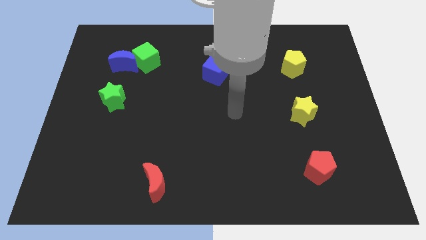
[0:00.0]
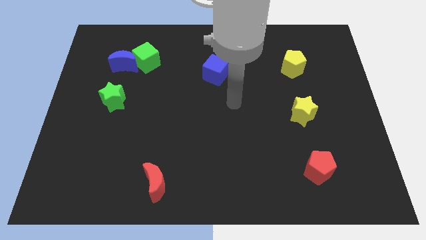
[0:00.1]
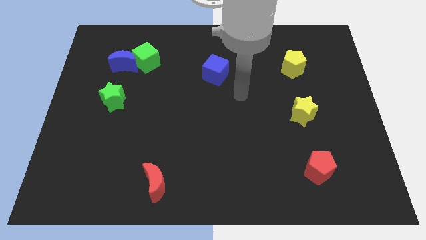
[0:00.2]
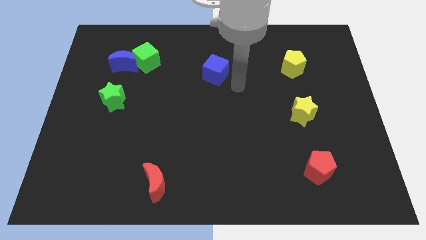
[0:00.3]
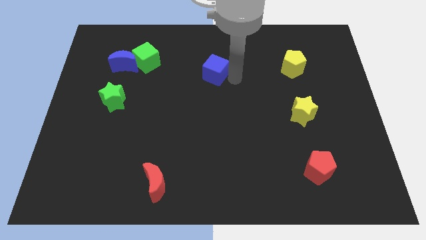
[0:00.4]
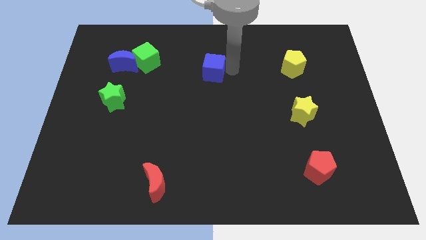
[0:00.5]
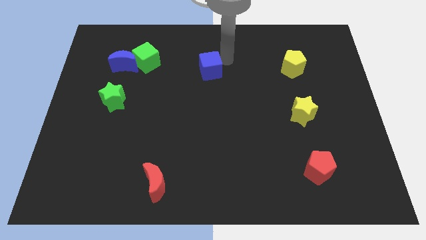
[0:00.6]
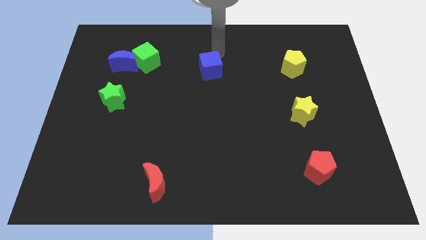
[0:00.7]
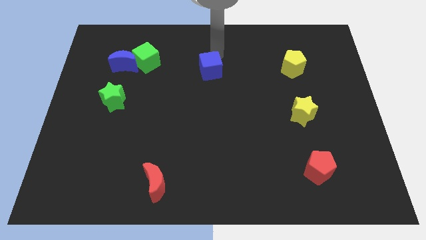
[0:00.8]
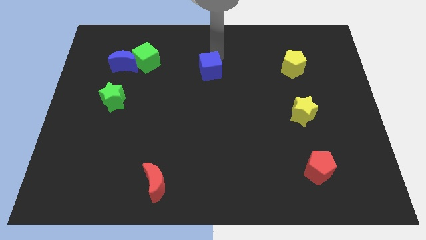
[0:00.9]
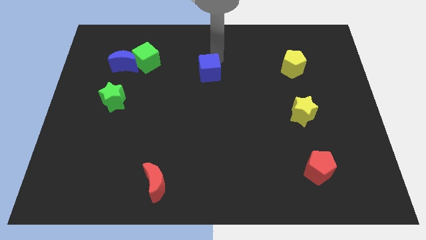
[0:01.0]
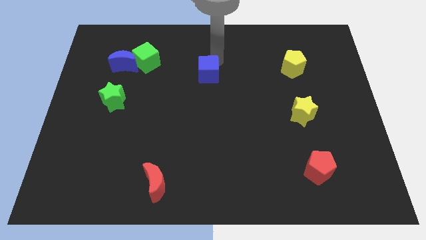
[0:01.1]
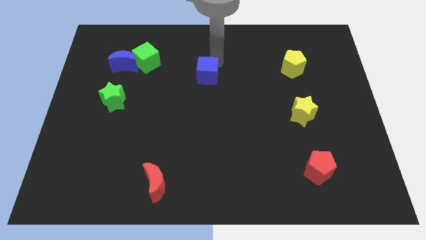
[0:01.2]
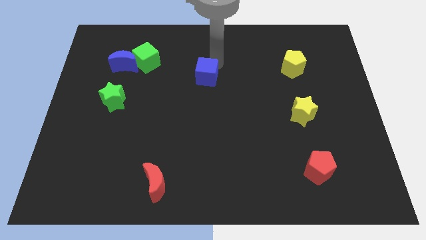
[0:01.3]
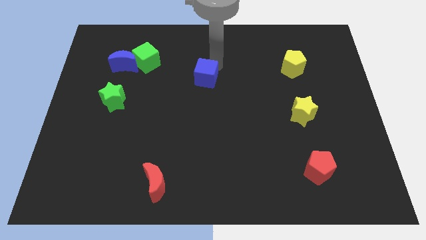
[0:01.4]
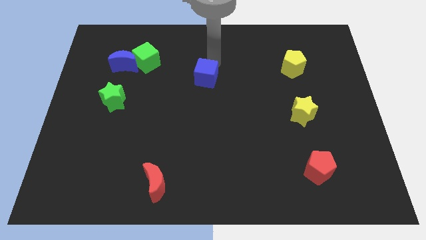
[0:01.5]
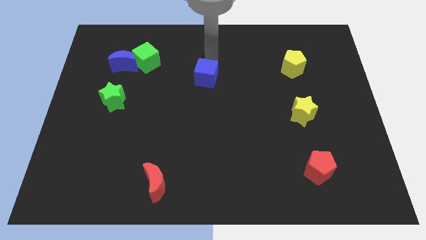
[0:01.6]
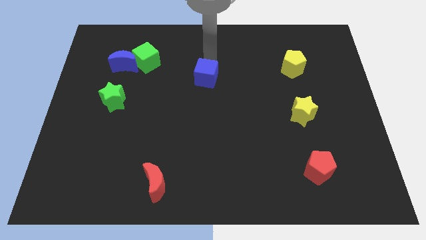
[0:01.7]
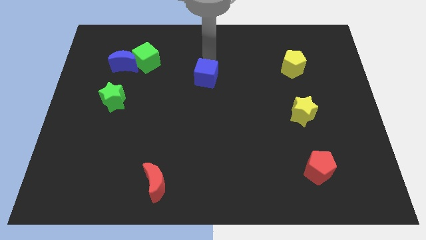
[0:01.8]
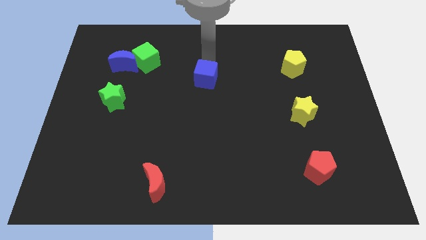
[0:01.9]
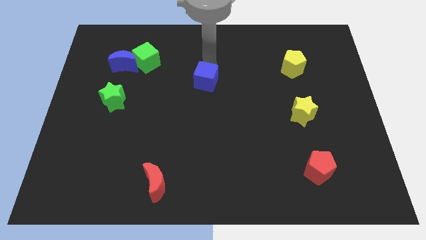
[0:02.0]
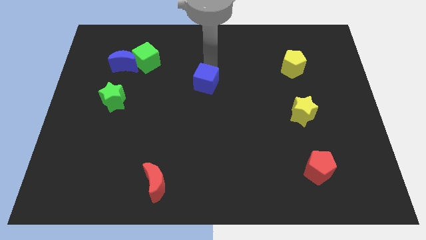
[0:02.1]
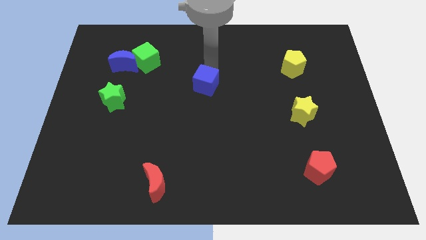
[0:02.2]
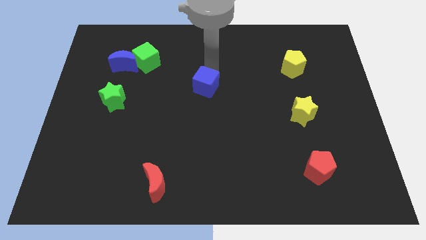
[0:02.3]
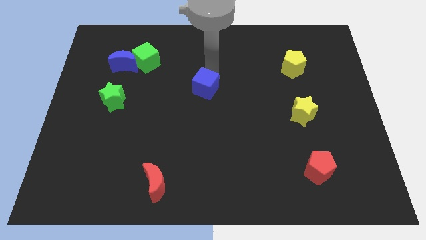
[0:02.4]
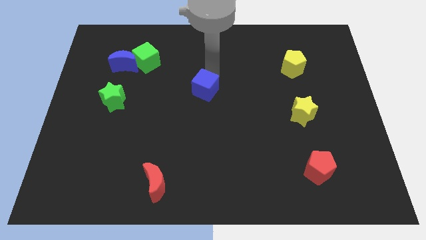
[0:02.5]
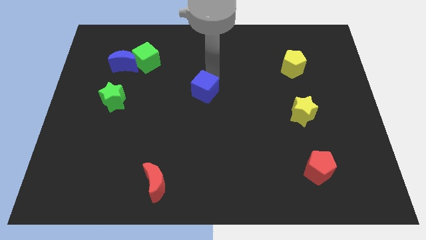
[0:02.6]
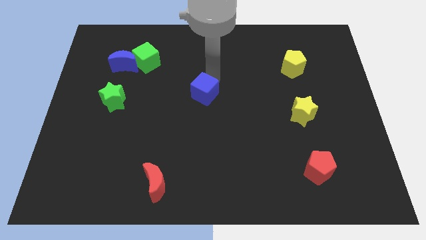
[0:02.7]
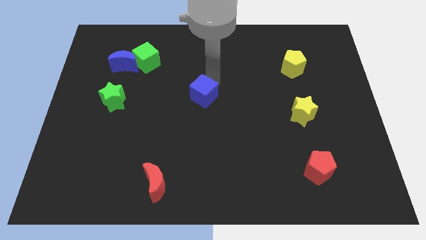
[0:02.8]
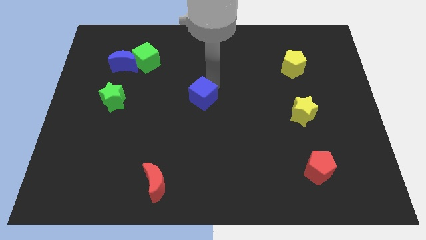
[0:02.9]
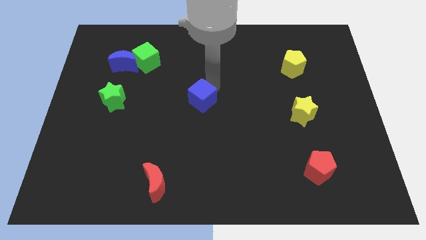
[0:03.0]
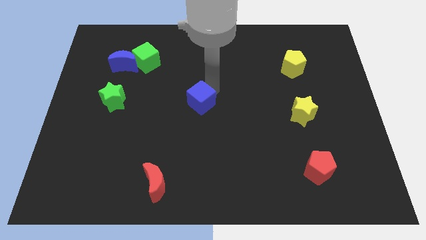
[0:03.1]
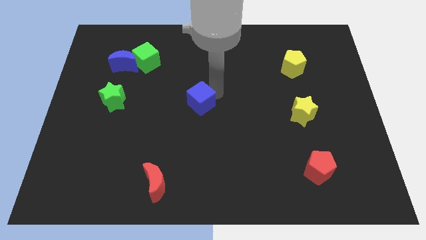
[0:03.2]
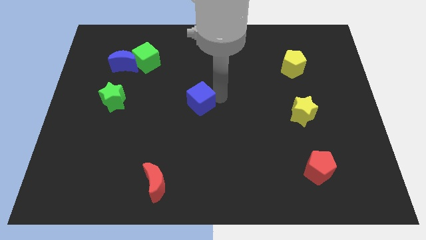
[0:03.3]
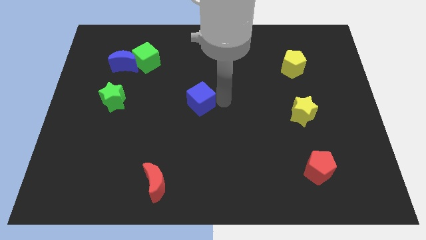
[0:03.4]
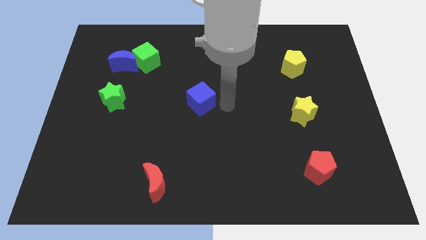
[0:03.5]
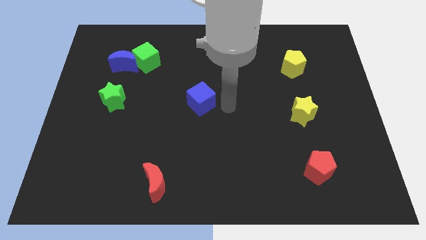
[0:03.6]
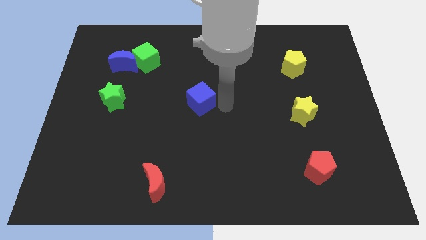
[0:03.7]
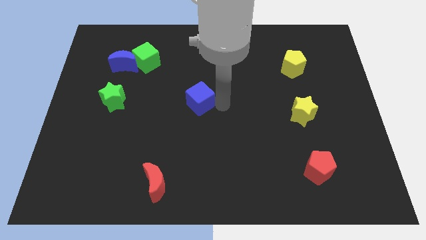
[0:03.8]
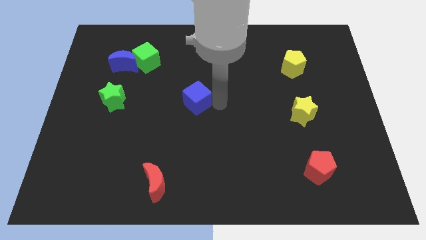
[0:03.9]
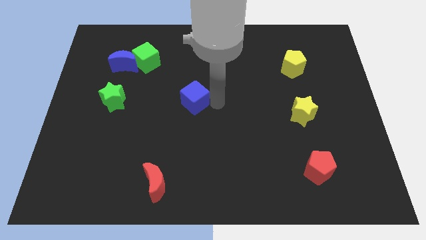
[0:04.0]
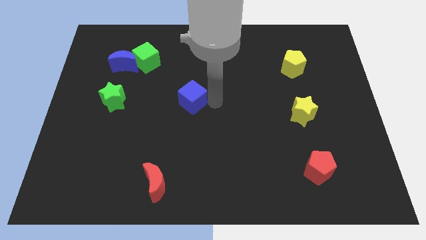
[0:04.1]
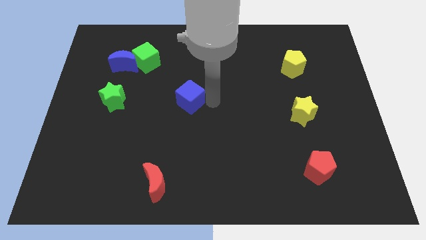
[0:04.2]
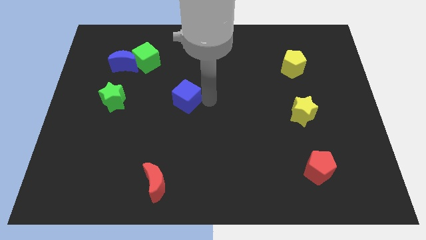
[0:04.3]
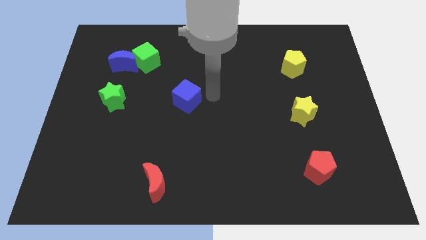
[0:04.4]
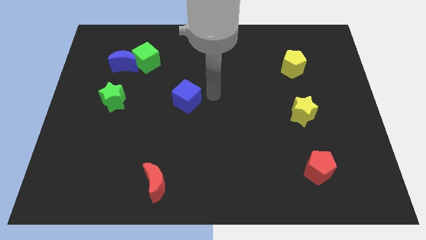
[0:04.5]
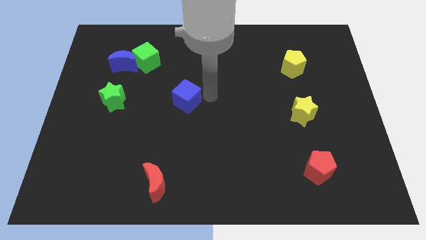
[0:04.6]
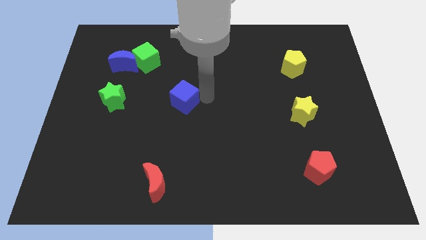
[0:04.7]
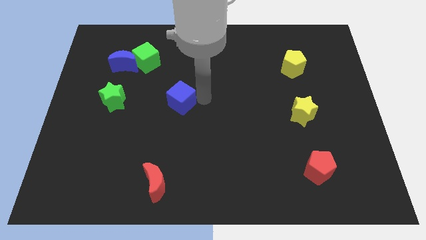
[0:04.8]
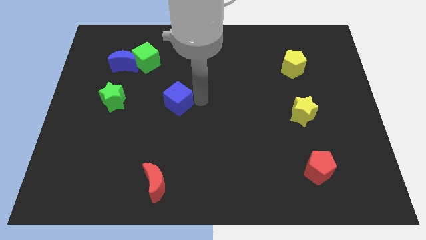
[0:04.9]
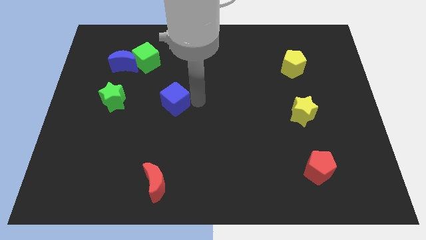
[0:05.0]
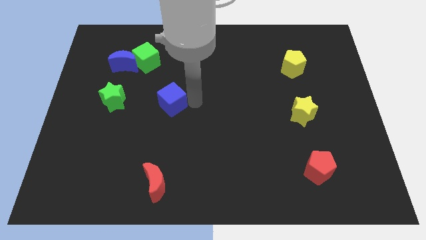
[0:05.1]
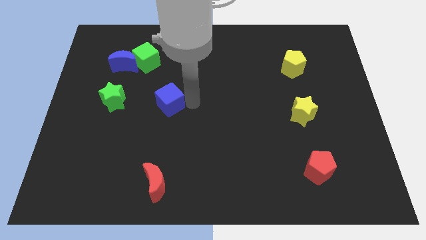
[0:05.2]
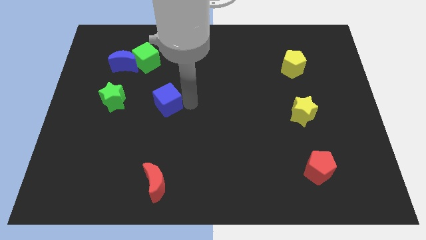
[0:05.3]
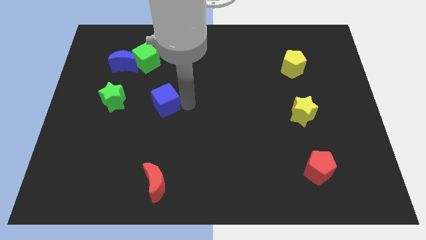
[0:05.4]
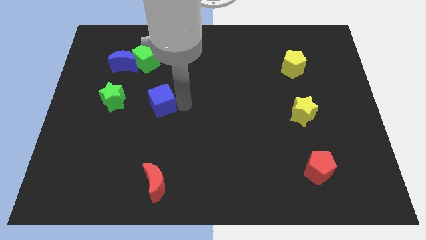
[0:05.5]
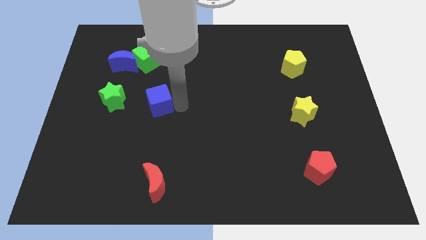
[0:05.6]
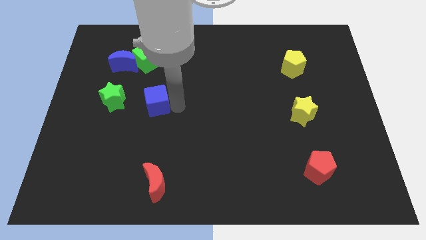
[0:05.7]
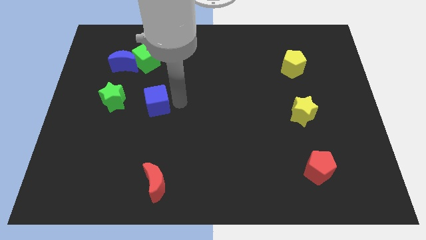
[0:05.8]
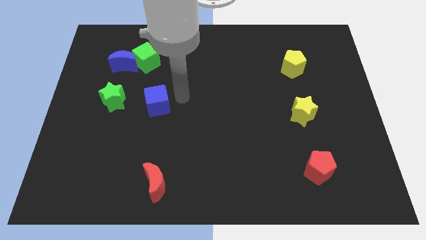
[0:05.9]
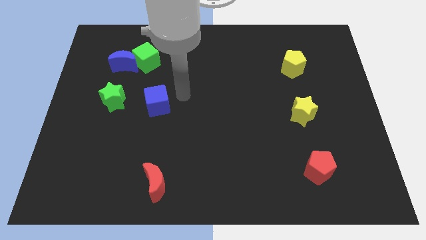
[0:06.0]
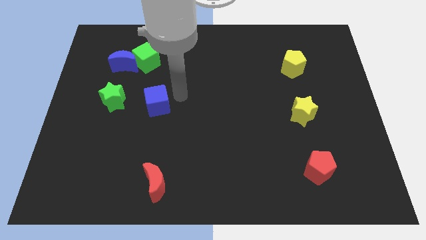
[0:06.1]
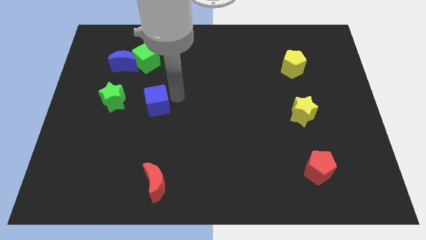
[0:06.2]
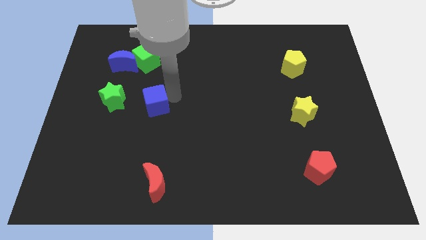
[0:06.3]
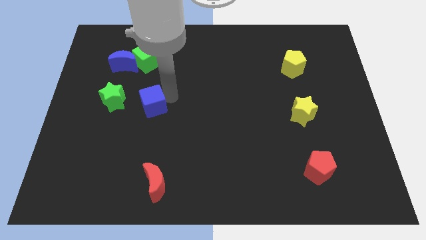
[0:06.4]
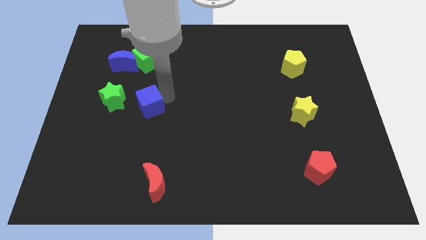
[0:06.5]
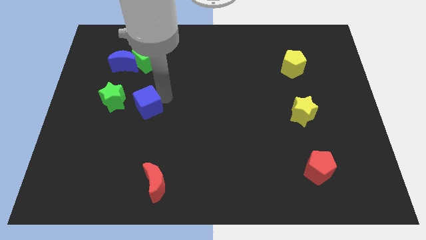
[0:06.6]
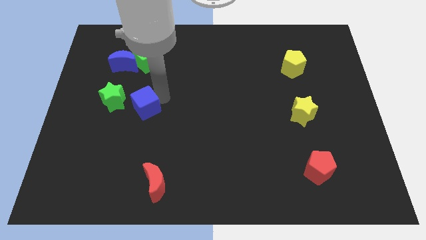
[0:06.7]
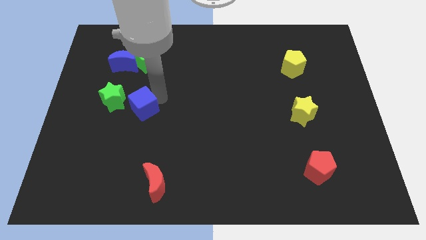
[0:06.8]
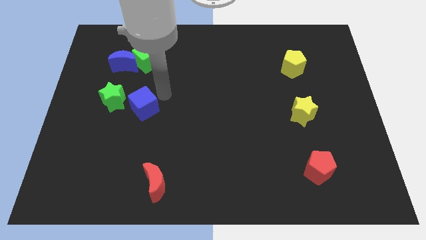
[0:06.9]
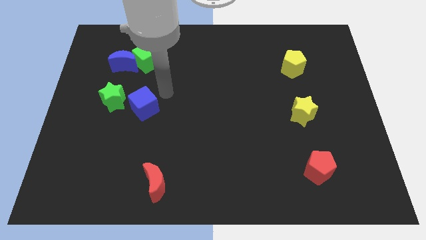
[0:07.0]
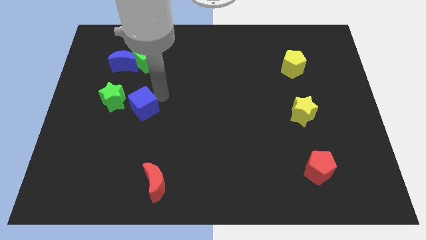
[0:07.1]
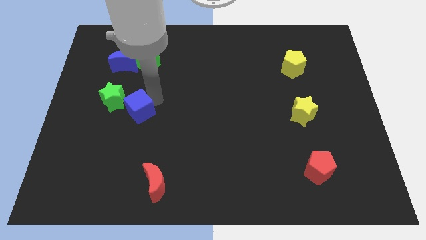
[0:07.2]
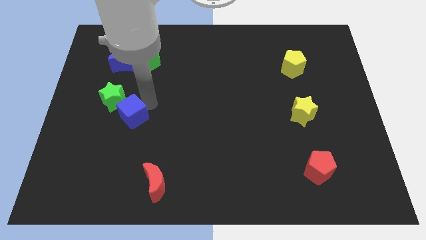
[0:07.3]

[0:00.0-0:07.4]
slide the blue cube to the bottom side of the green star
